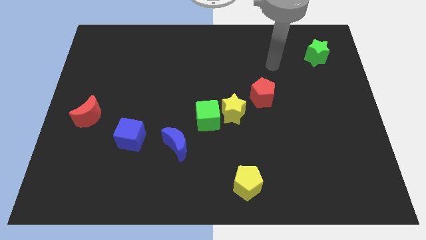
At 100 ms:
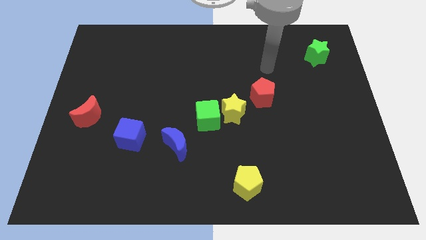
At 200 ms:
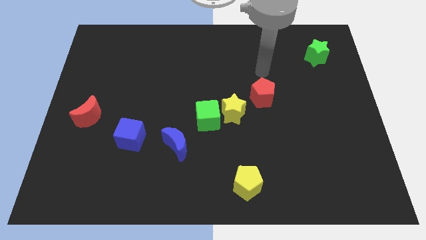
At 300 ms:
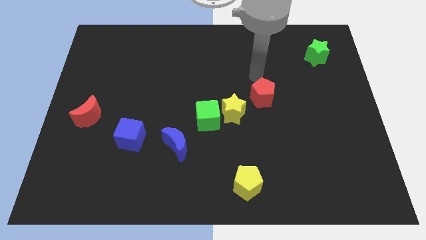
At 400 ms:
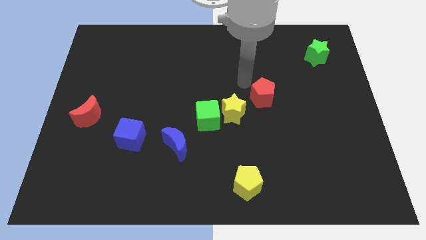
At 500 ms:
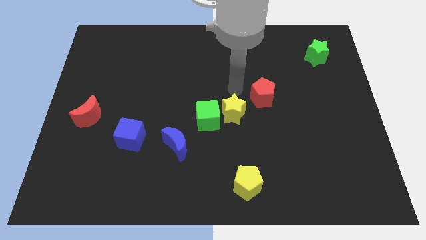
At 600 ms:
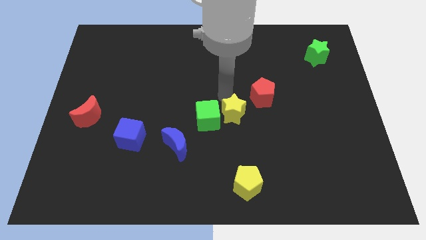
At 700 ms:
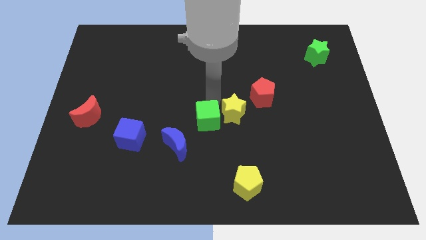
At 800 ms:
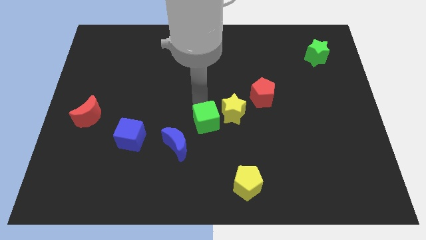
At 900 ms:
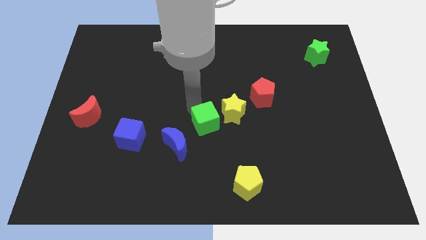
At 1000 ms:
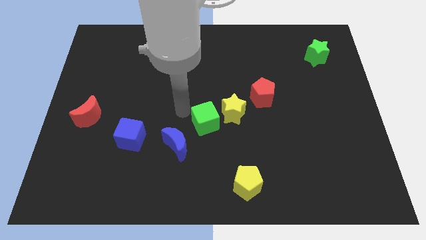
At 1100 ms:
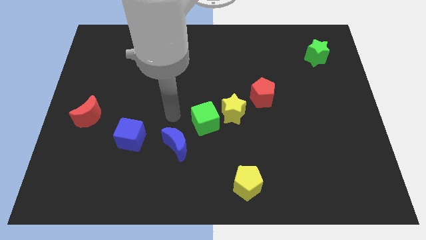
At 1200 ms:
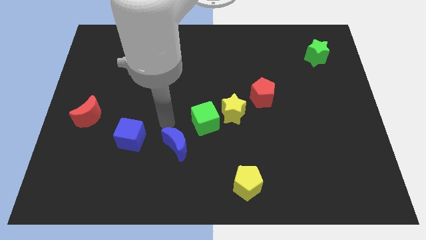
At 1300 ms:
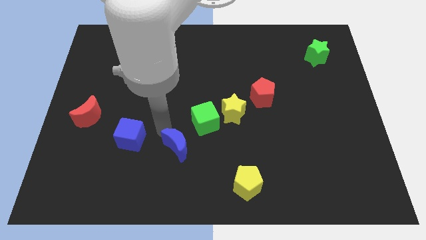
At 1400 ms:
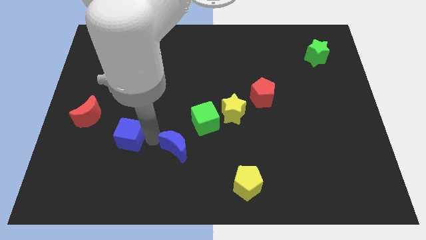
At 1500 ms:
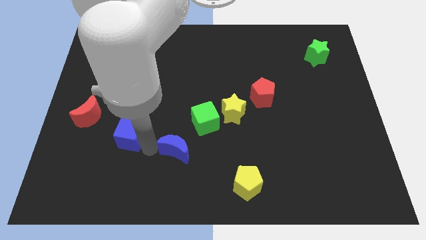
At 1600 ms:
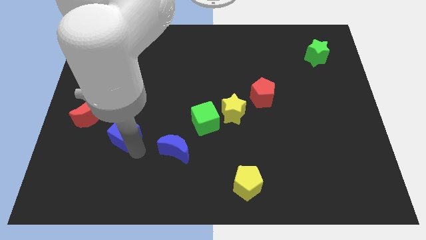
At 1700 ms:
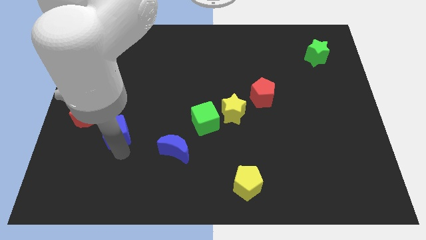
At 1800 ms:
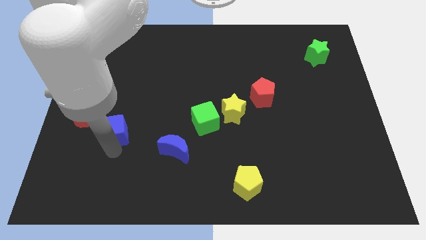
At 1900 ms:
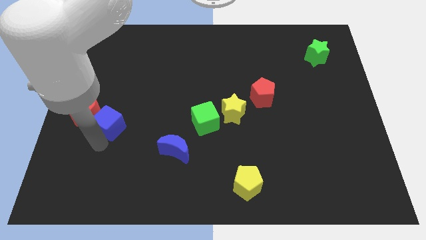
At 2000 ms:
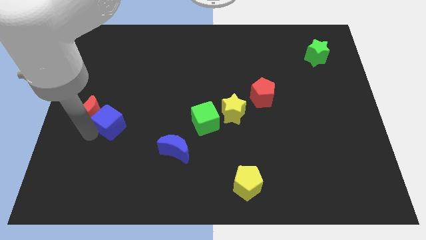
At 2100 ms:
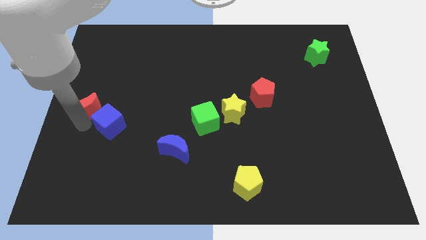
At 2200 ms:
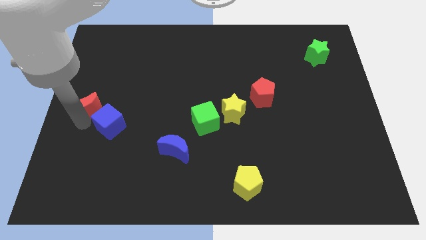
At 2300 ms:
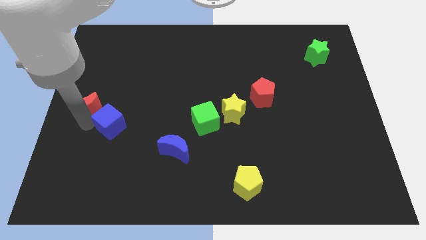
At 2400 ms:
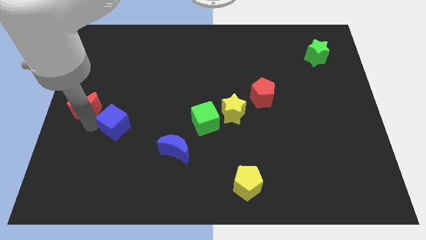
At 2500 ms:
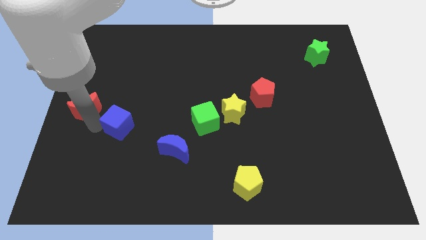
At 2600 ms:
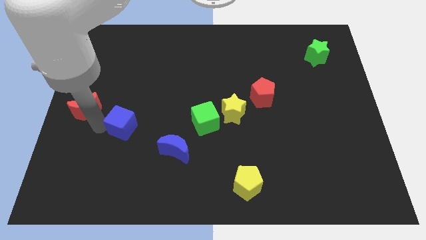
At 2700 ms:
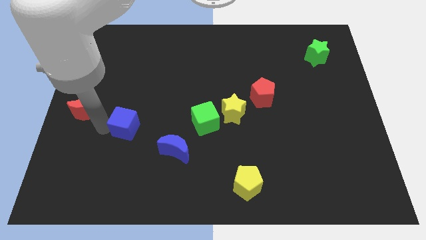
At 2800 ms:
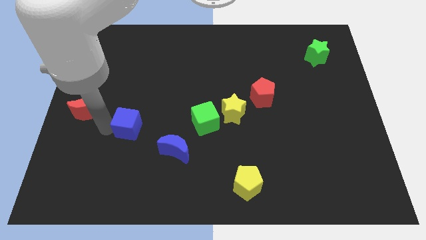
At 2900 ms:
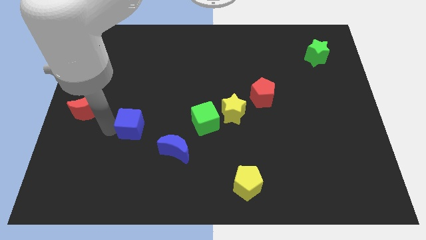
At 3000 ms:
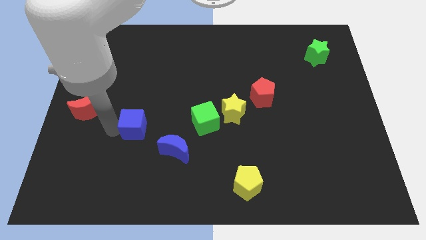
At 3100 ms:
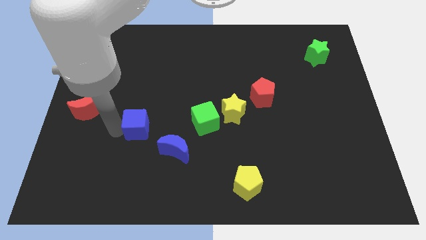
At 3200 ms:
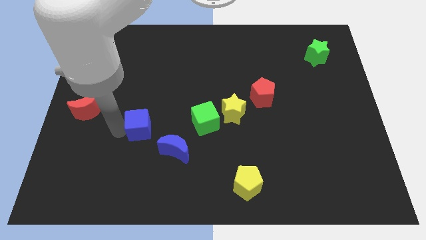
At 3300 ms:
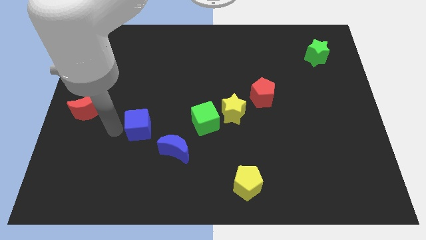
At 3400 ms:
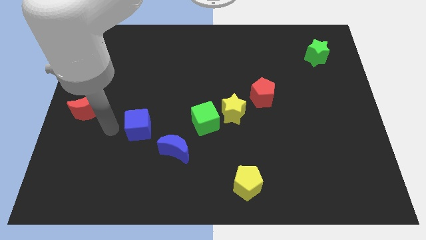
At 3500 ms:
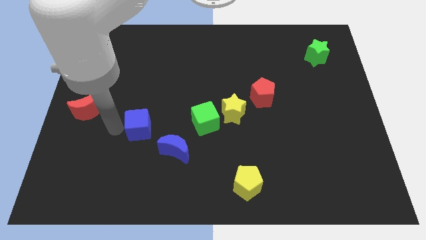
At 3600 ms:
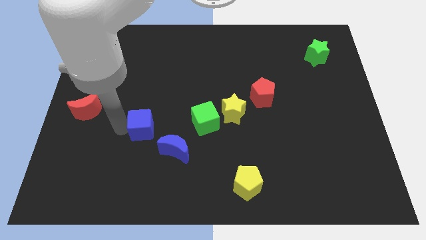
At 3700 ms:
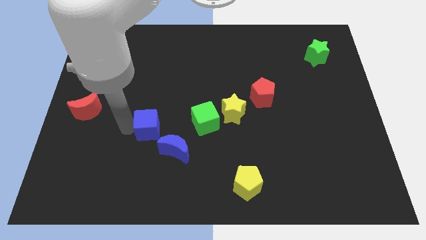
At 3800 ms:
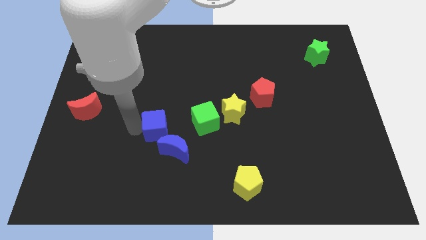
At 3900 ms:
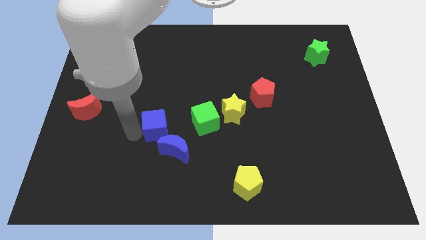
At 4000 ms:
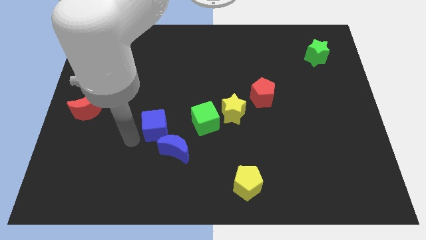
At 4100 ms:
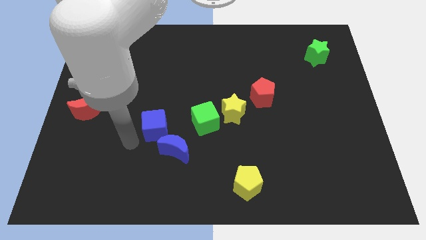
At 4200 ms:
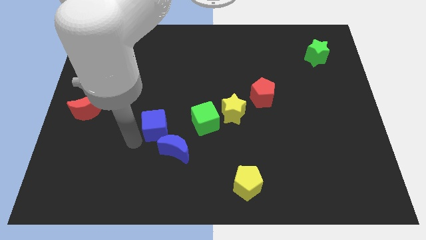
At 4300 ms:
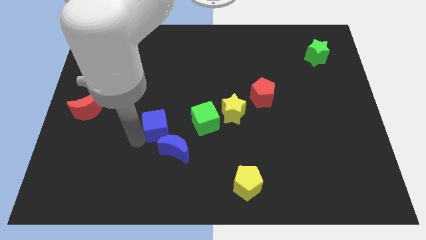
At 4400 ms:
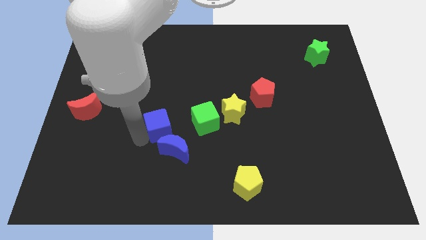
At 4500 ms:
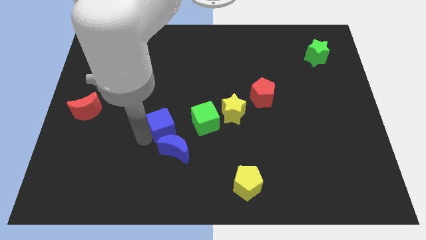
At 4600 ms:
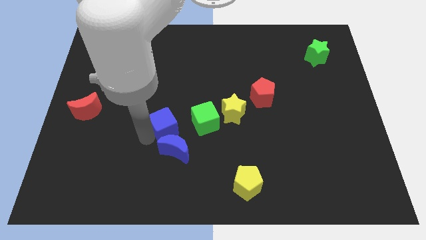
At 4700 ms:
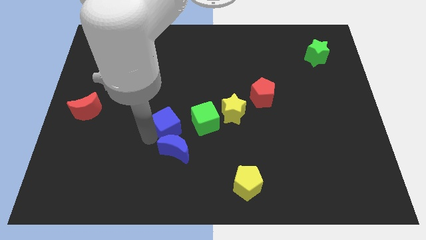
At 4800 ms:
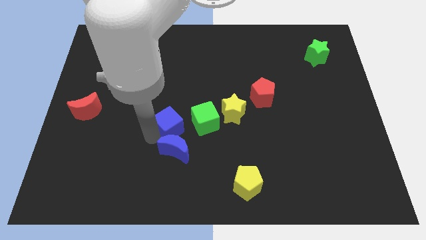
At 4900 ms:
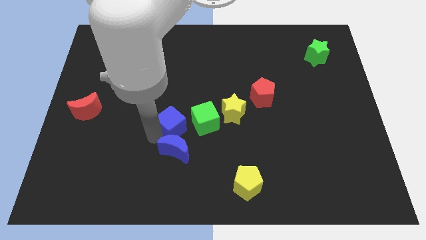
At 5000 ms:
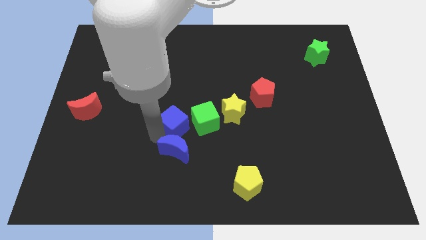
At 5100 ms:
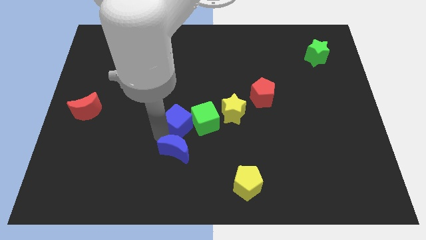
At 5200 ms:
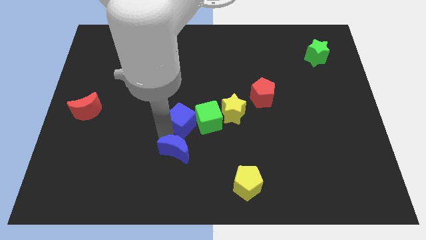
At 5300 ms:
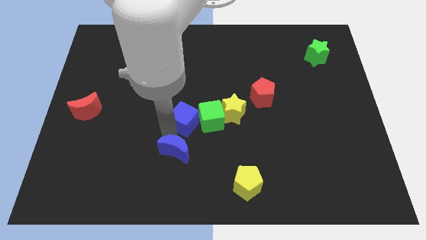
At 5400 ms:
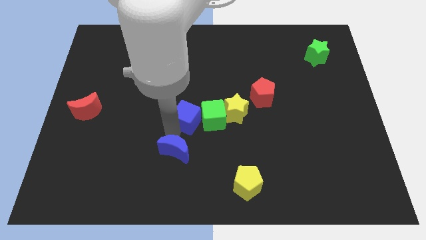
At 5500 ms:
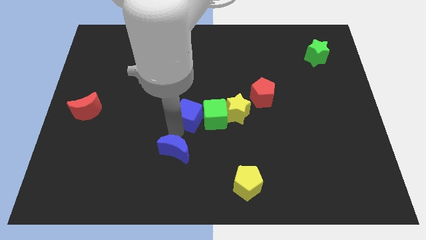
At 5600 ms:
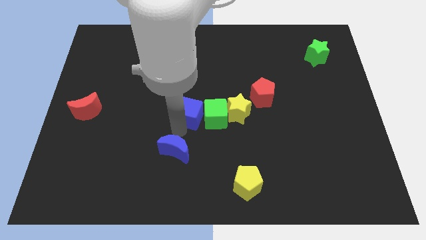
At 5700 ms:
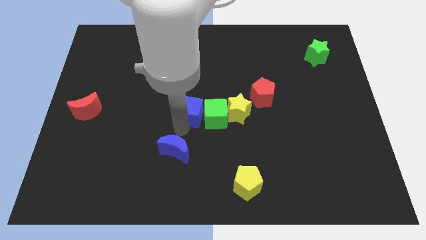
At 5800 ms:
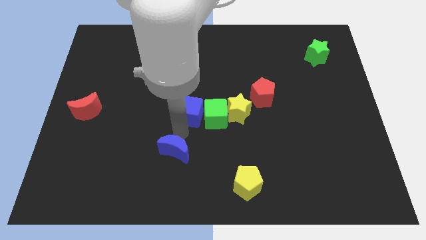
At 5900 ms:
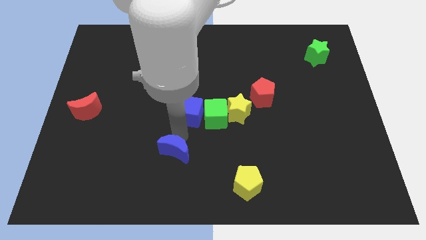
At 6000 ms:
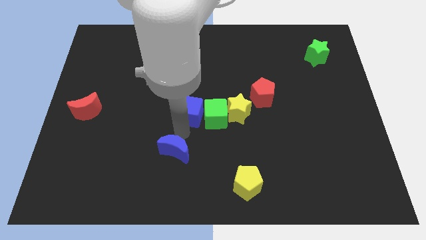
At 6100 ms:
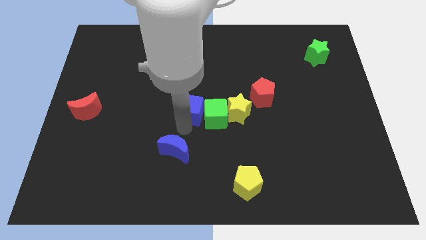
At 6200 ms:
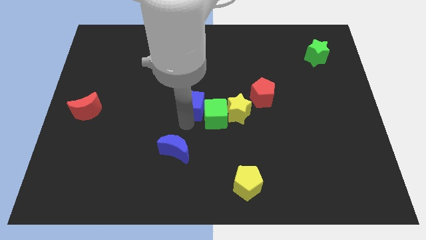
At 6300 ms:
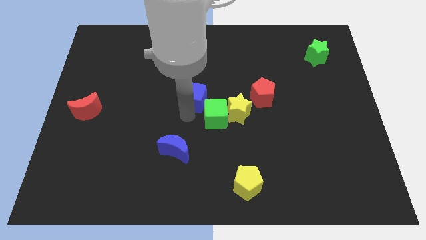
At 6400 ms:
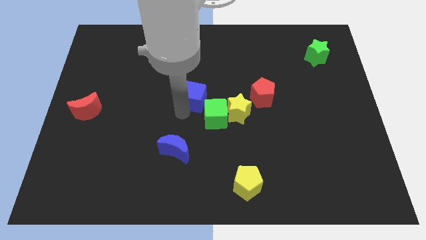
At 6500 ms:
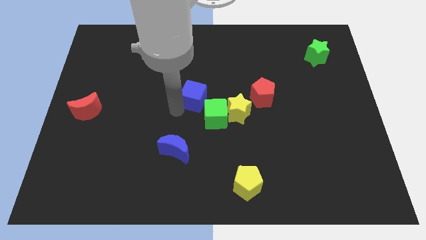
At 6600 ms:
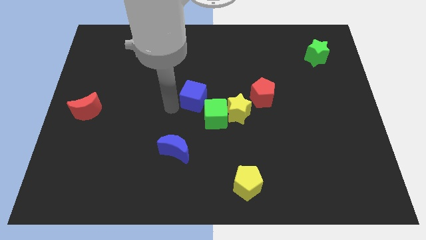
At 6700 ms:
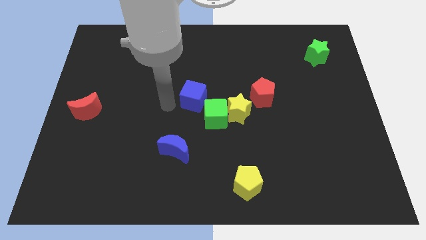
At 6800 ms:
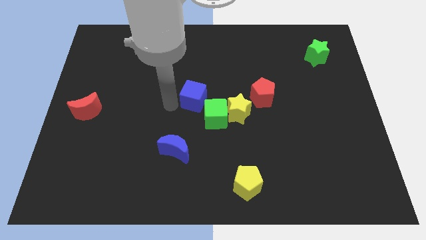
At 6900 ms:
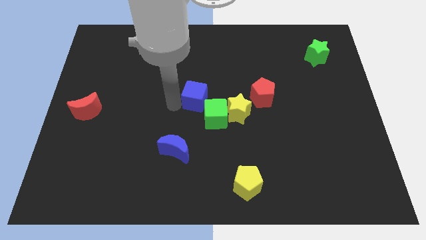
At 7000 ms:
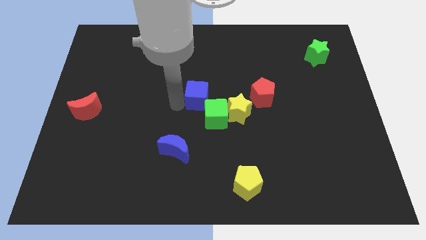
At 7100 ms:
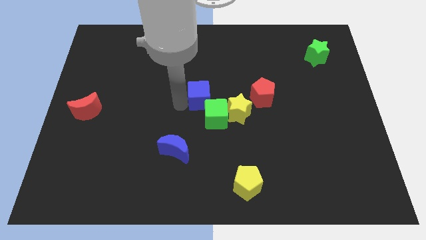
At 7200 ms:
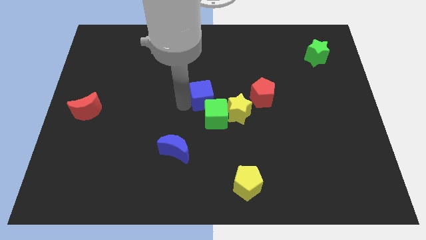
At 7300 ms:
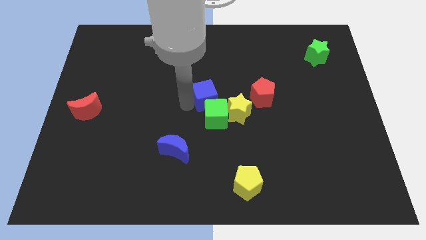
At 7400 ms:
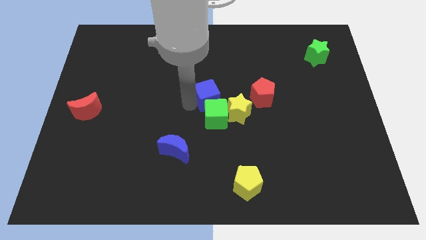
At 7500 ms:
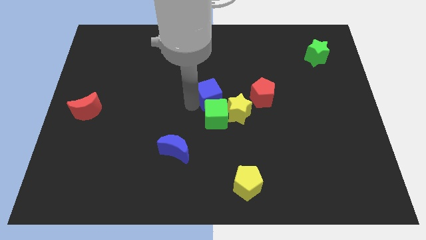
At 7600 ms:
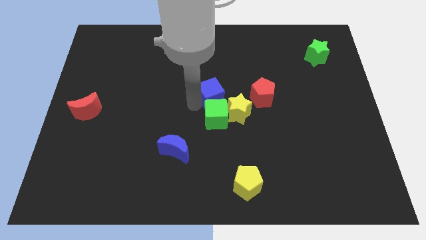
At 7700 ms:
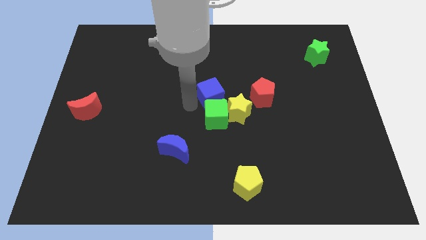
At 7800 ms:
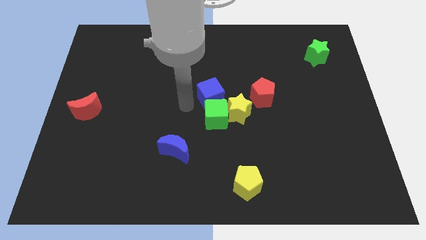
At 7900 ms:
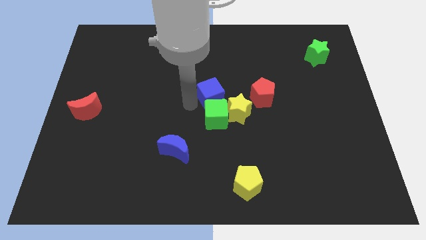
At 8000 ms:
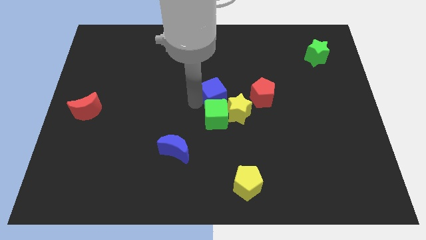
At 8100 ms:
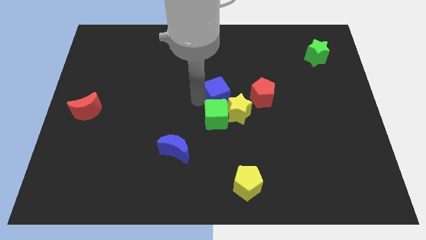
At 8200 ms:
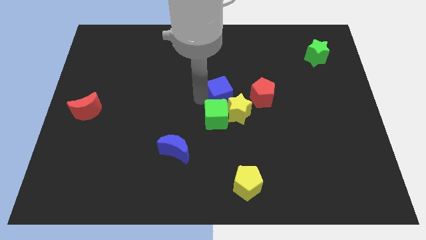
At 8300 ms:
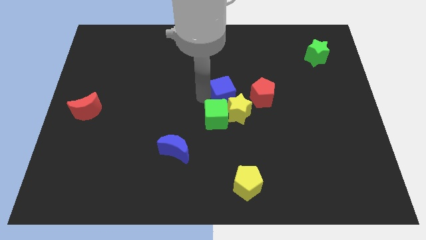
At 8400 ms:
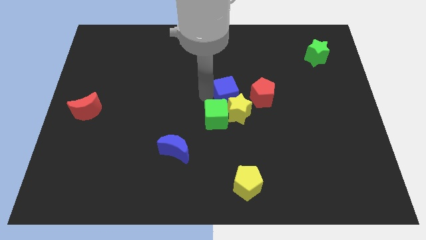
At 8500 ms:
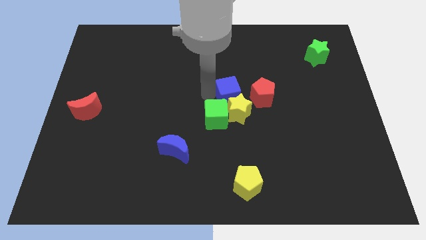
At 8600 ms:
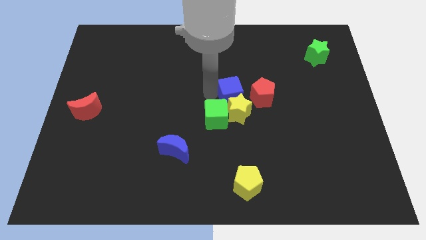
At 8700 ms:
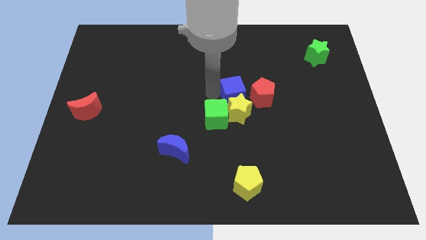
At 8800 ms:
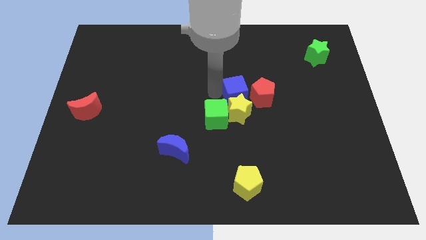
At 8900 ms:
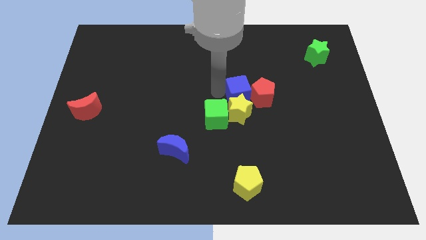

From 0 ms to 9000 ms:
move the blue cube to the red pentagon
